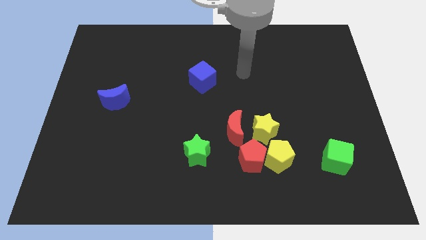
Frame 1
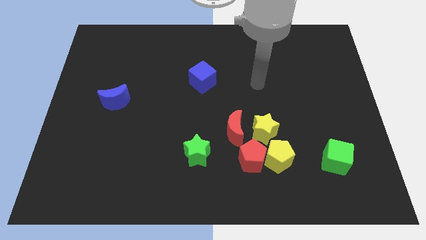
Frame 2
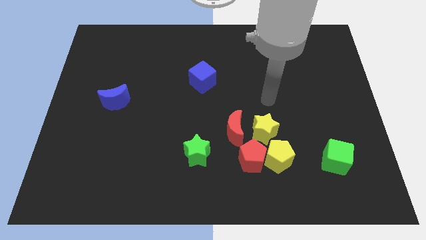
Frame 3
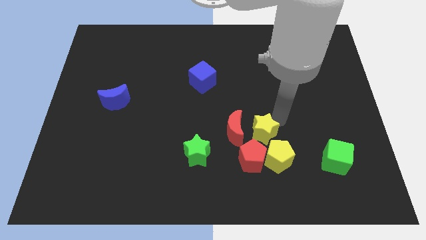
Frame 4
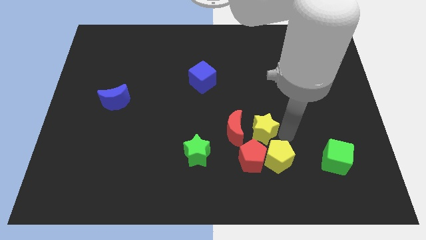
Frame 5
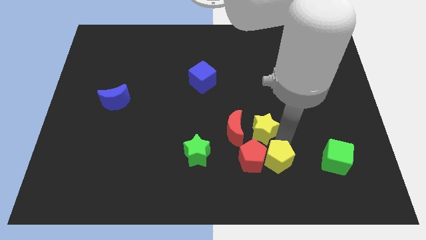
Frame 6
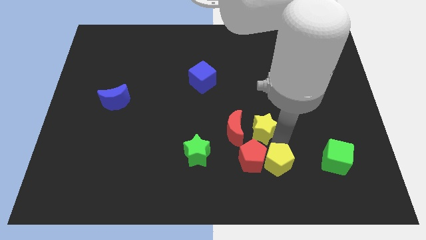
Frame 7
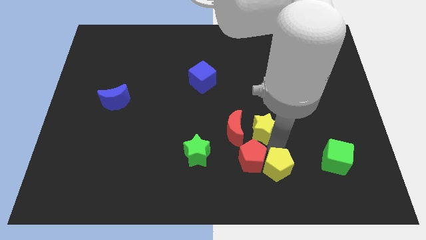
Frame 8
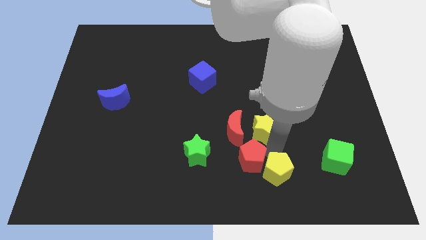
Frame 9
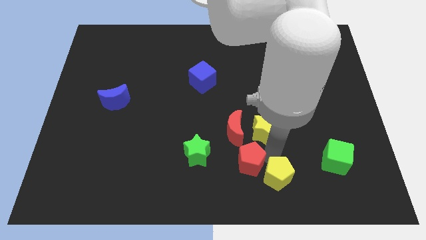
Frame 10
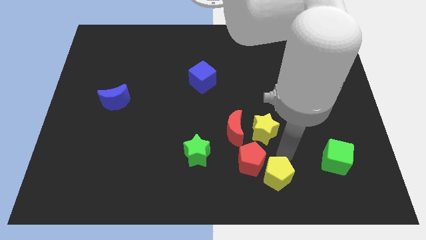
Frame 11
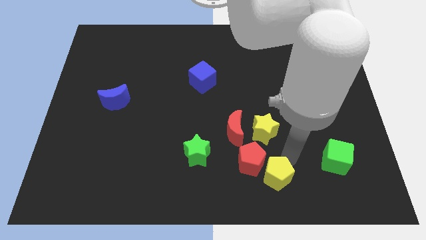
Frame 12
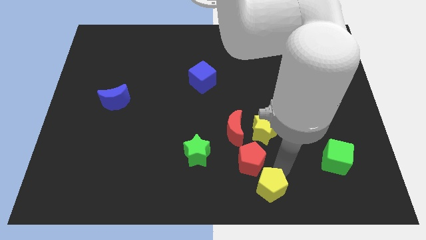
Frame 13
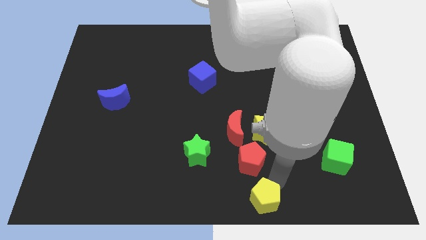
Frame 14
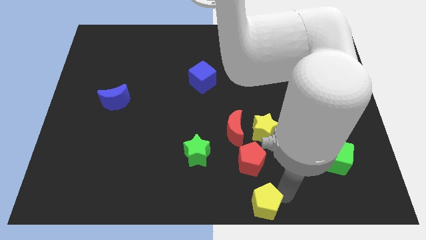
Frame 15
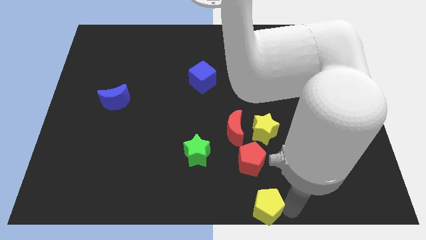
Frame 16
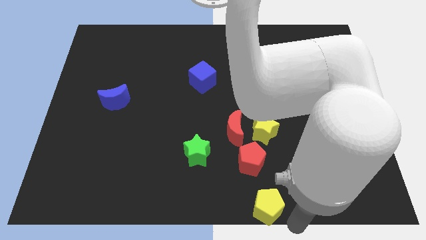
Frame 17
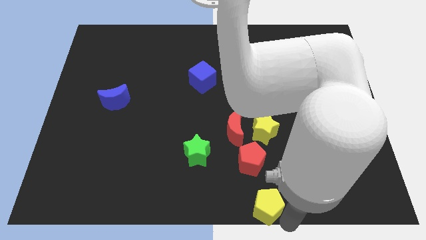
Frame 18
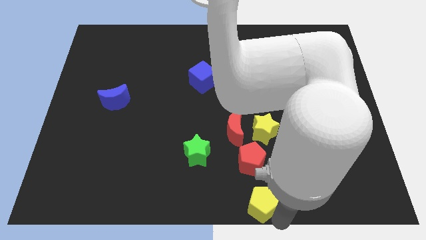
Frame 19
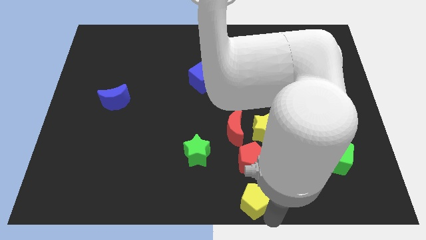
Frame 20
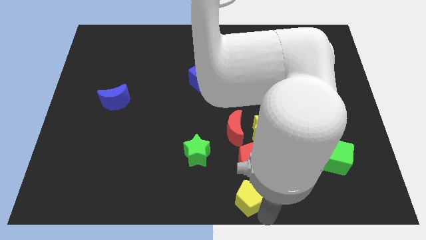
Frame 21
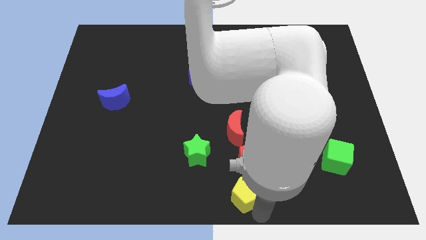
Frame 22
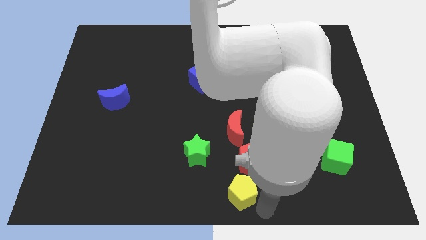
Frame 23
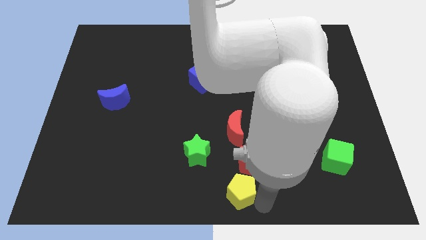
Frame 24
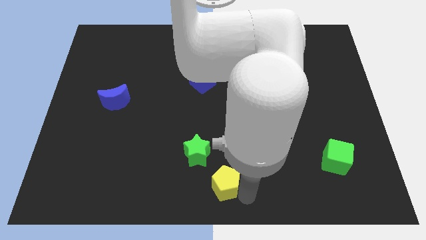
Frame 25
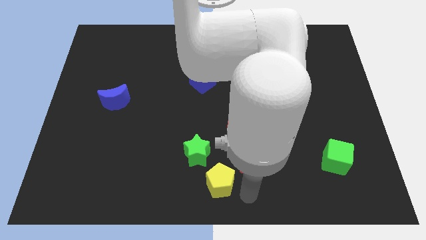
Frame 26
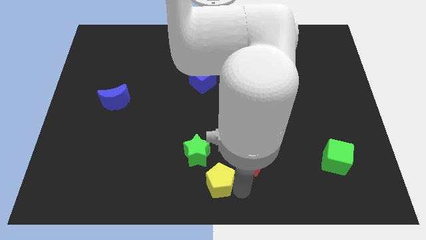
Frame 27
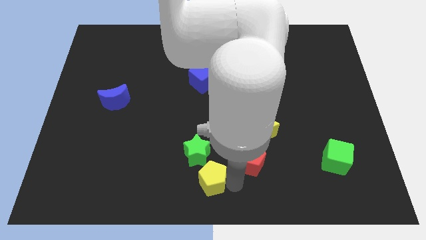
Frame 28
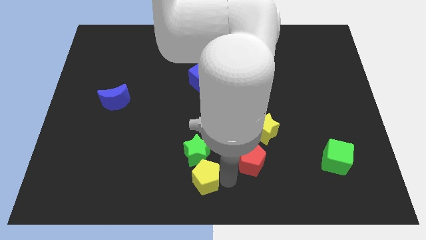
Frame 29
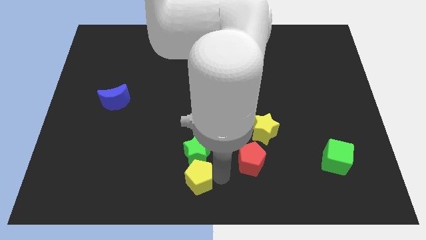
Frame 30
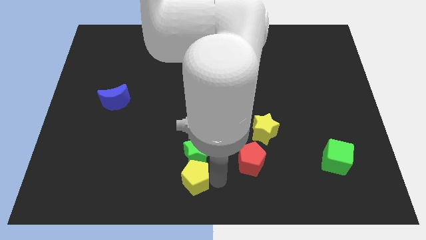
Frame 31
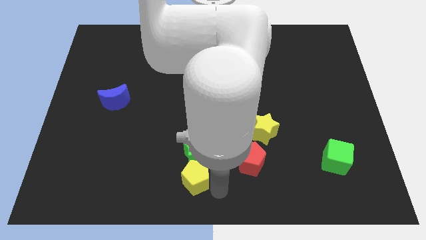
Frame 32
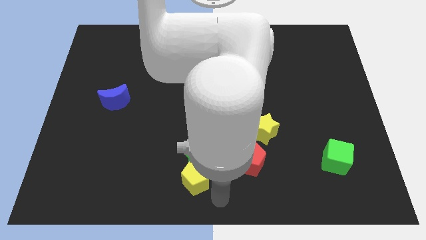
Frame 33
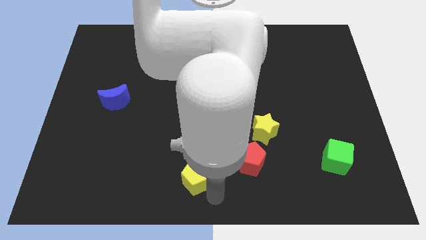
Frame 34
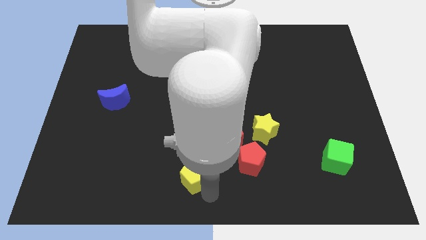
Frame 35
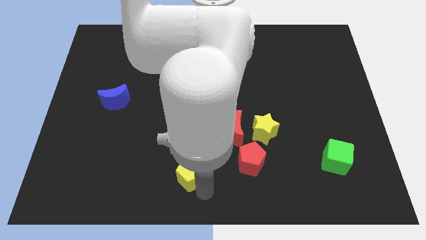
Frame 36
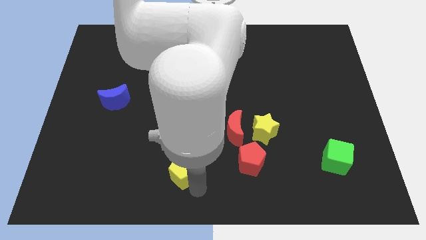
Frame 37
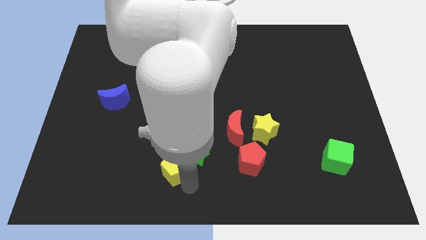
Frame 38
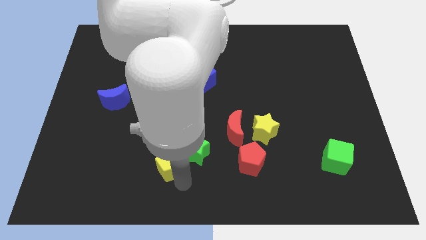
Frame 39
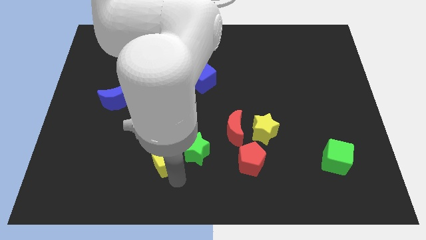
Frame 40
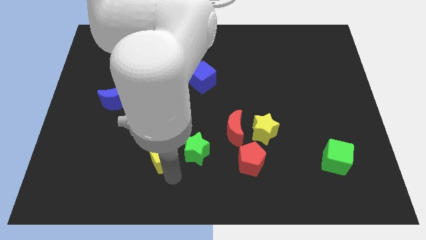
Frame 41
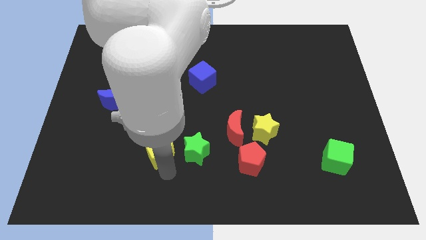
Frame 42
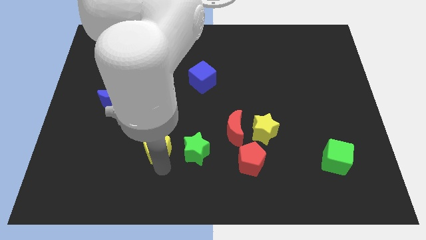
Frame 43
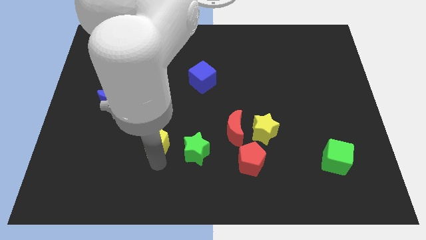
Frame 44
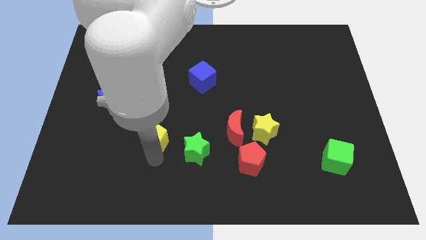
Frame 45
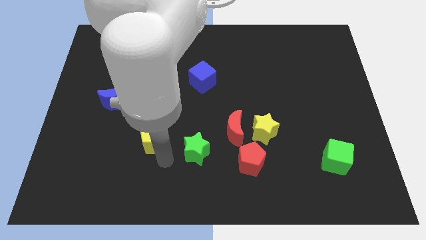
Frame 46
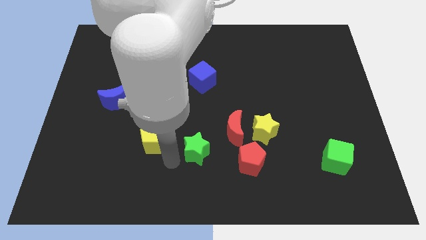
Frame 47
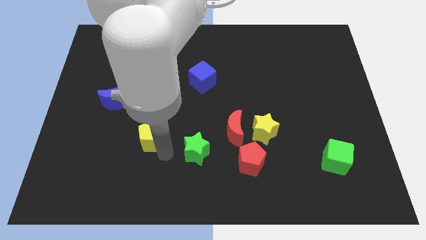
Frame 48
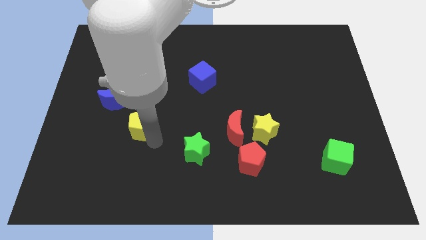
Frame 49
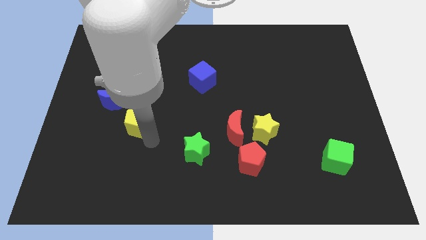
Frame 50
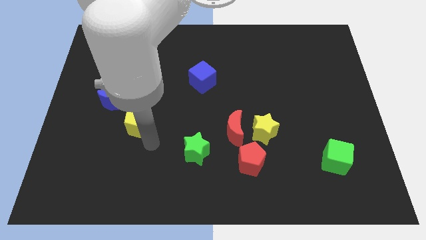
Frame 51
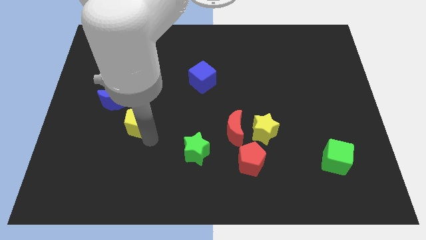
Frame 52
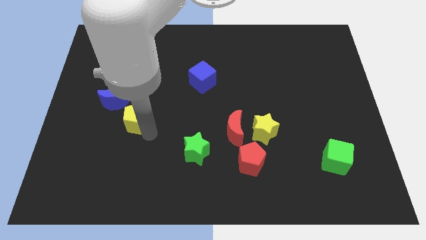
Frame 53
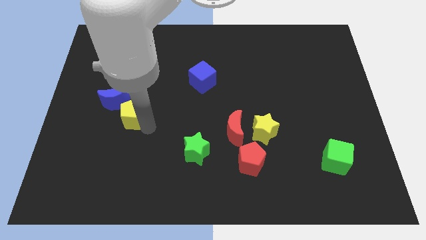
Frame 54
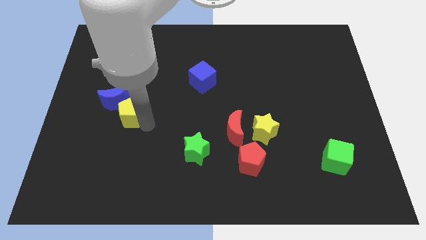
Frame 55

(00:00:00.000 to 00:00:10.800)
push the yellow pentagon close to the blue moon

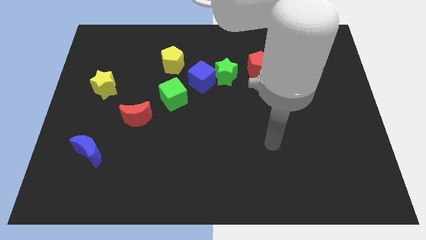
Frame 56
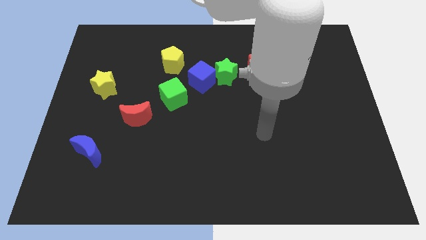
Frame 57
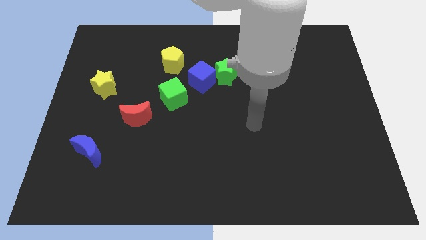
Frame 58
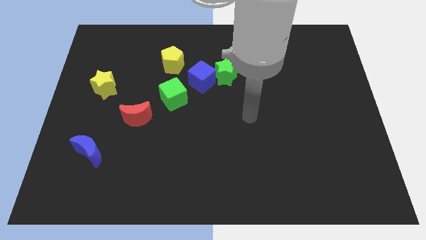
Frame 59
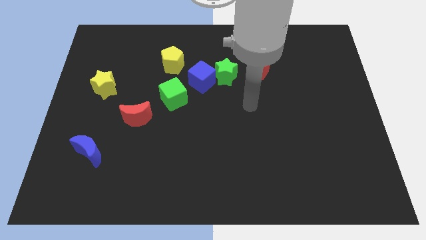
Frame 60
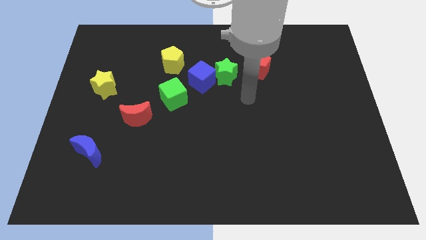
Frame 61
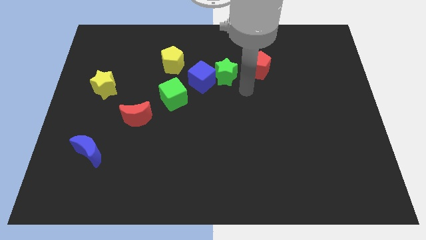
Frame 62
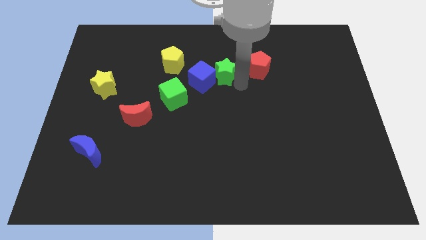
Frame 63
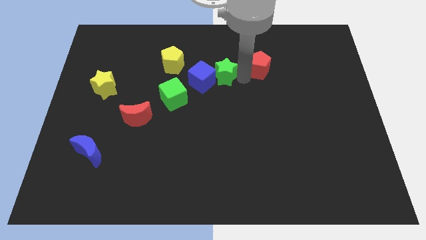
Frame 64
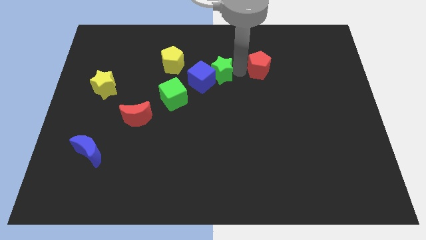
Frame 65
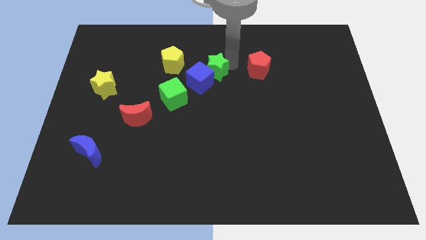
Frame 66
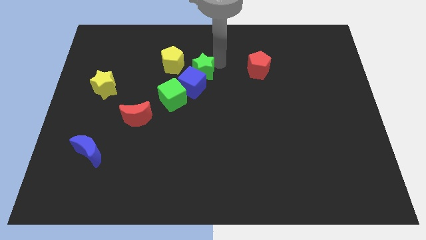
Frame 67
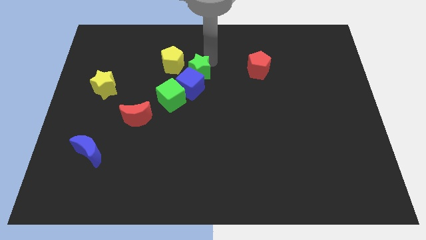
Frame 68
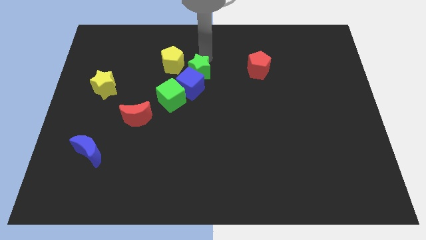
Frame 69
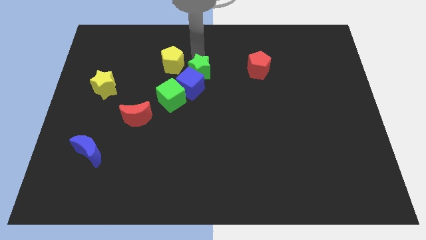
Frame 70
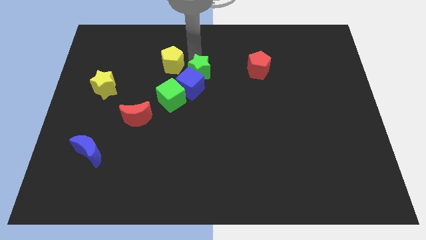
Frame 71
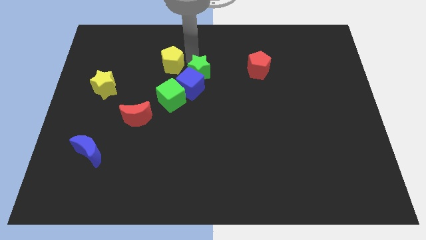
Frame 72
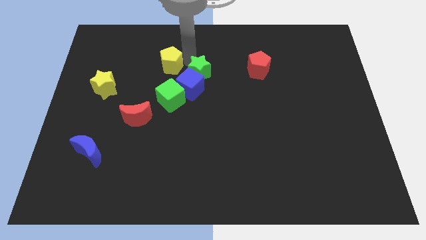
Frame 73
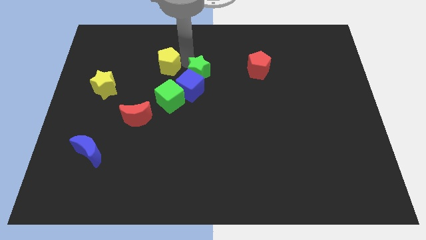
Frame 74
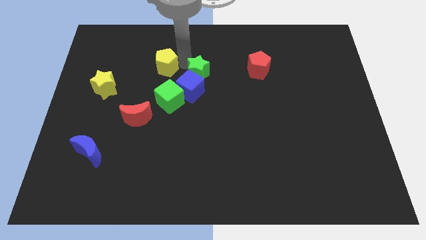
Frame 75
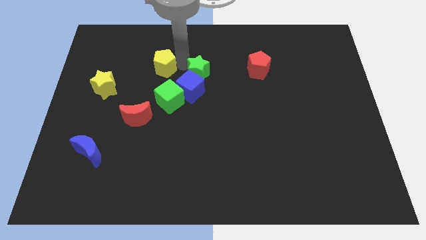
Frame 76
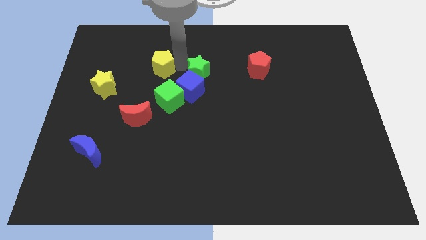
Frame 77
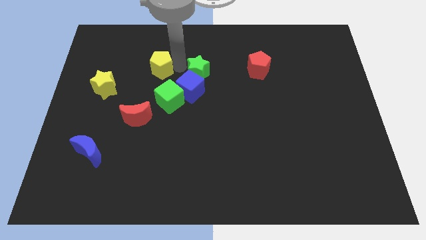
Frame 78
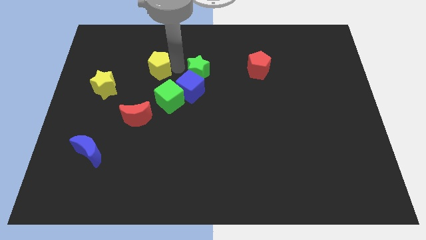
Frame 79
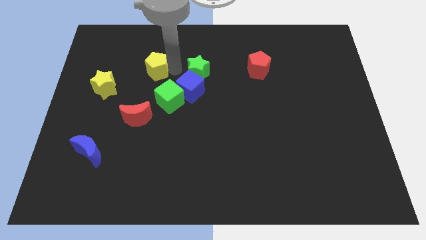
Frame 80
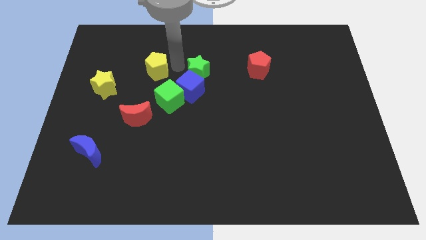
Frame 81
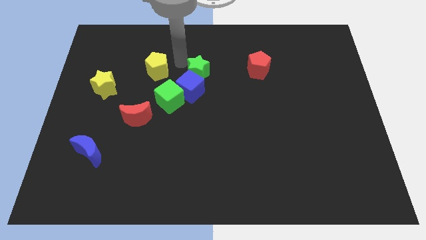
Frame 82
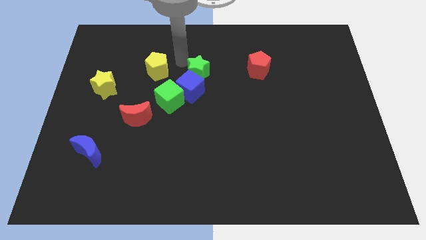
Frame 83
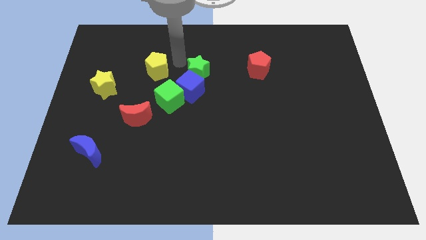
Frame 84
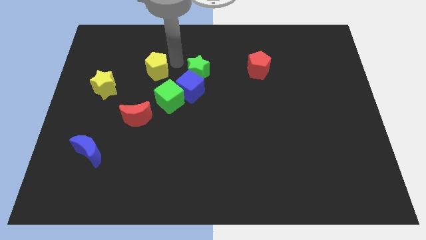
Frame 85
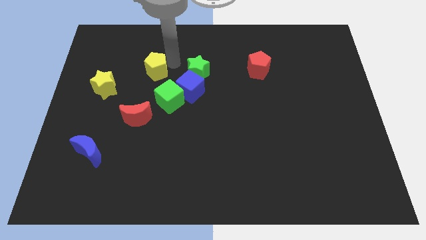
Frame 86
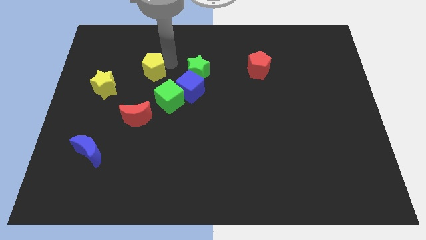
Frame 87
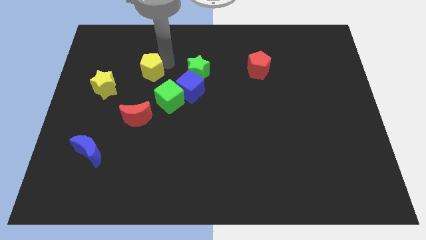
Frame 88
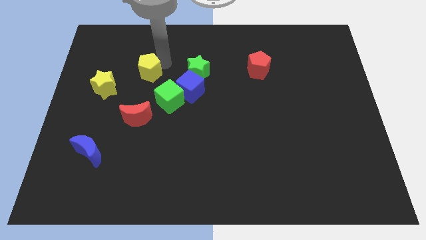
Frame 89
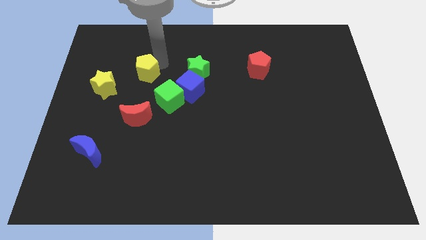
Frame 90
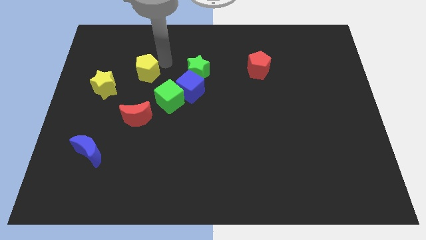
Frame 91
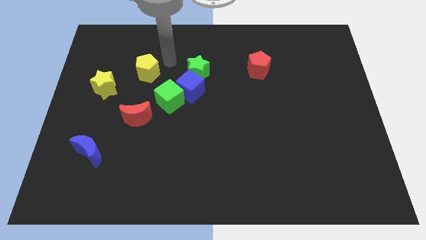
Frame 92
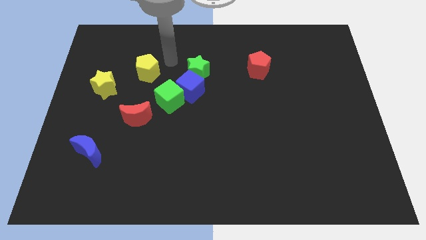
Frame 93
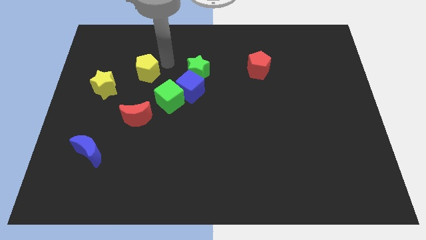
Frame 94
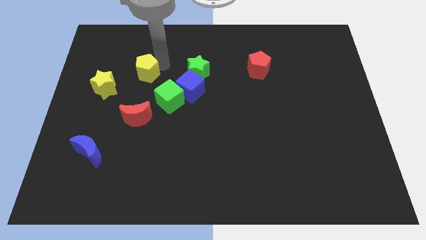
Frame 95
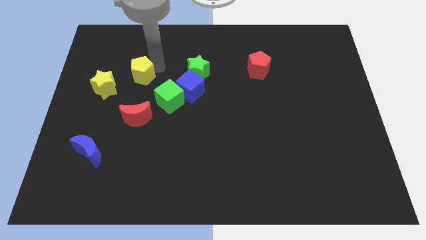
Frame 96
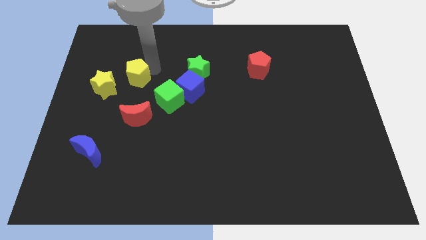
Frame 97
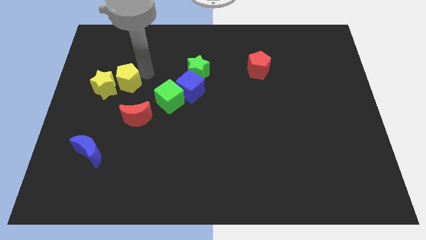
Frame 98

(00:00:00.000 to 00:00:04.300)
push the yellow pentagon close to the yellow star
